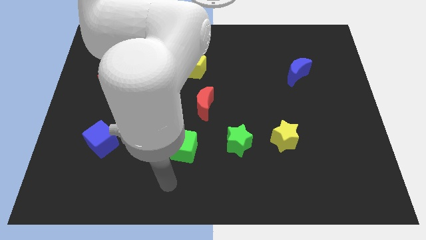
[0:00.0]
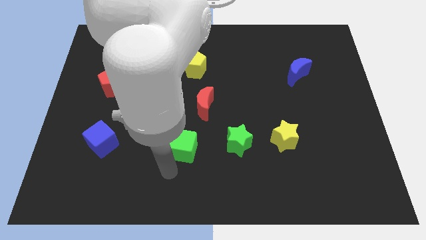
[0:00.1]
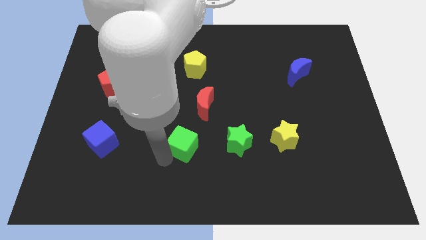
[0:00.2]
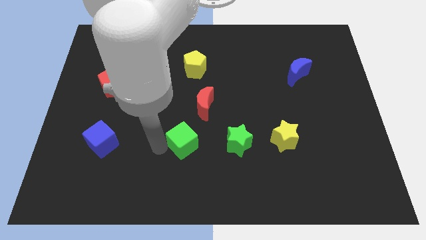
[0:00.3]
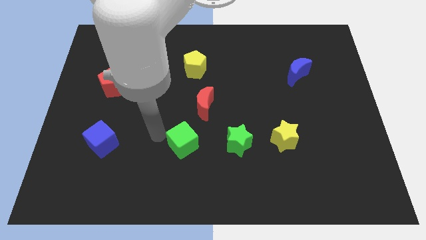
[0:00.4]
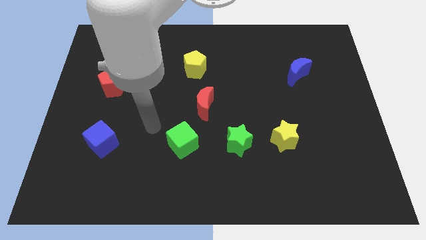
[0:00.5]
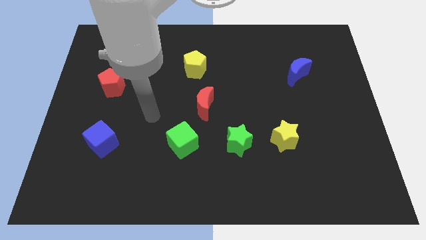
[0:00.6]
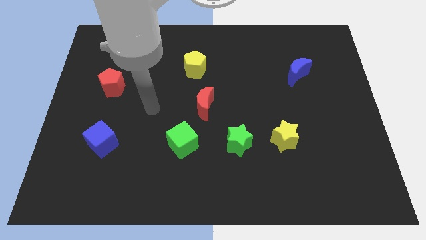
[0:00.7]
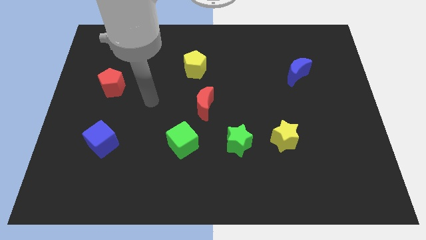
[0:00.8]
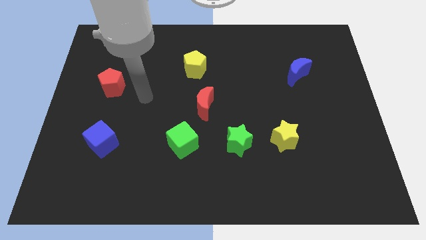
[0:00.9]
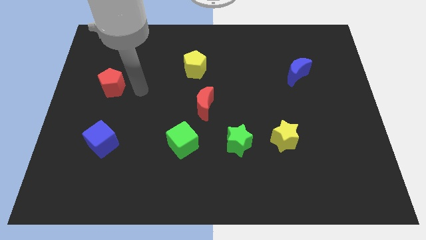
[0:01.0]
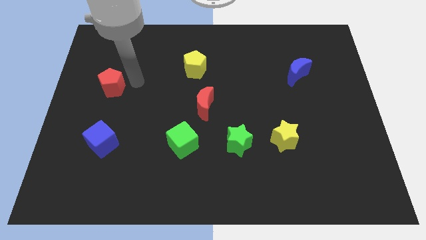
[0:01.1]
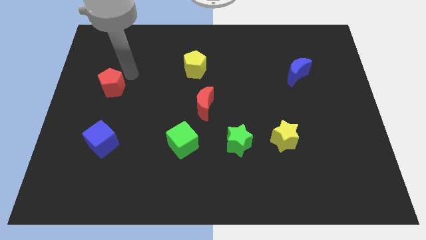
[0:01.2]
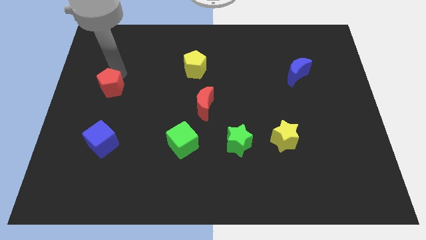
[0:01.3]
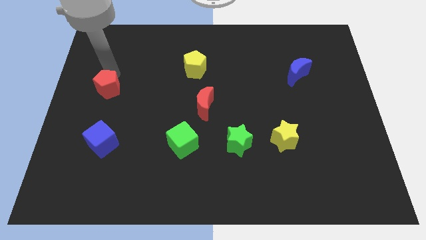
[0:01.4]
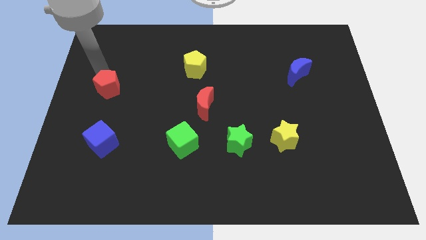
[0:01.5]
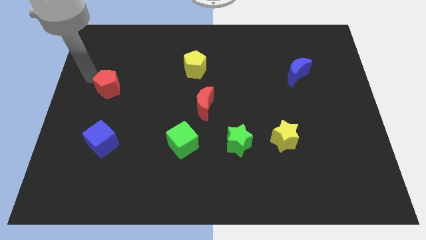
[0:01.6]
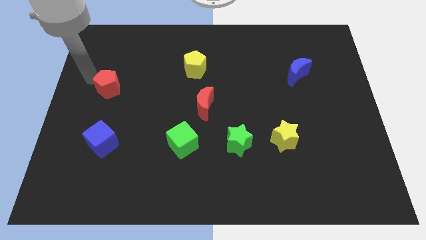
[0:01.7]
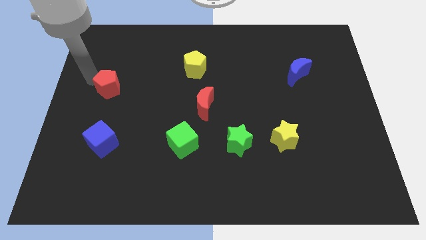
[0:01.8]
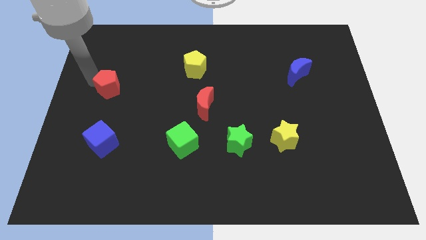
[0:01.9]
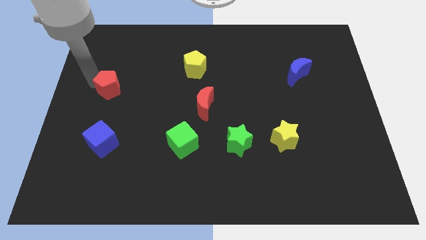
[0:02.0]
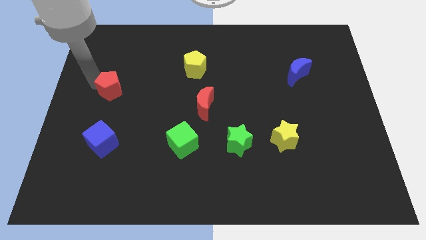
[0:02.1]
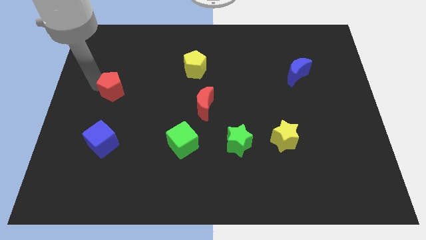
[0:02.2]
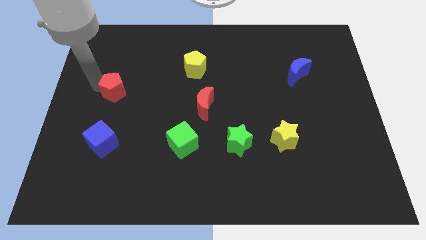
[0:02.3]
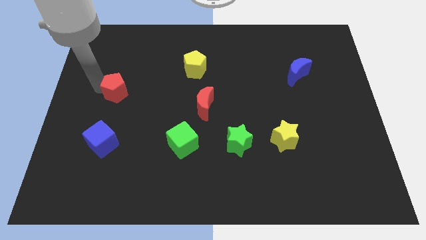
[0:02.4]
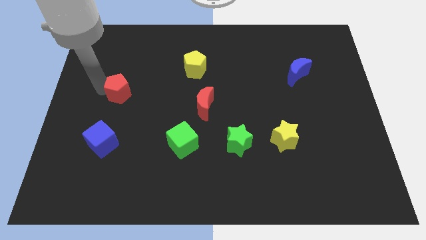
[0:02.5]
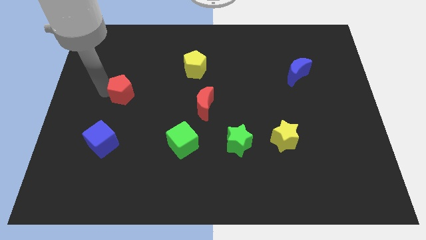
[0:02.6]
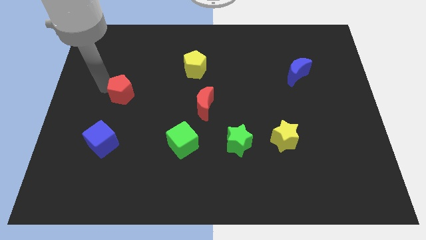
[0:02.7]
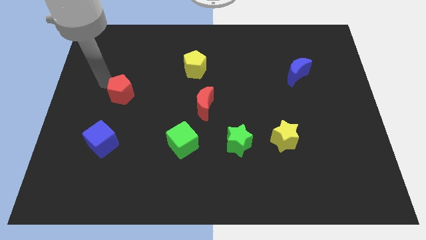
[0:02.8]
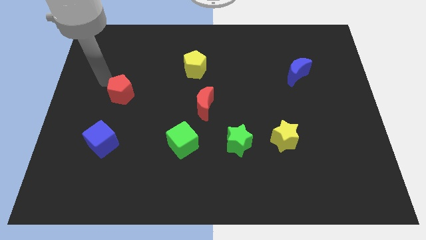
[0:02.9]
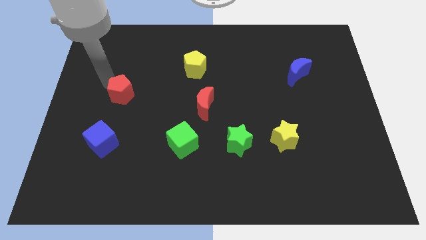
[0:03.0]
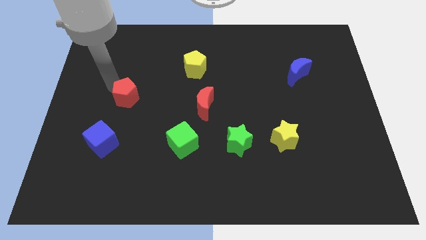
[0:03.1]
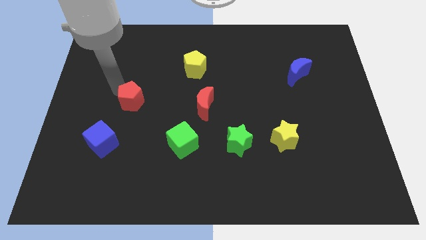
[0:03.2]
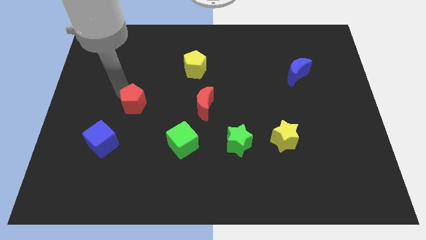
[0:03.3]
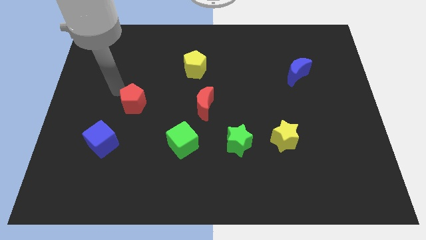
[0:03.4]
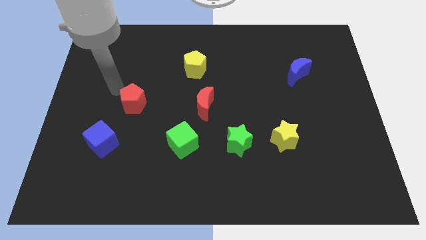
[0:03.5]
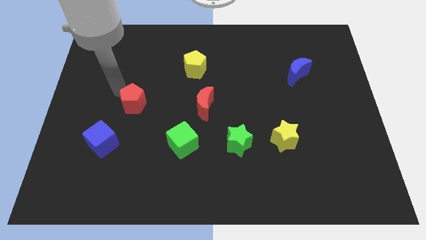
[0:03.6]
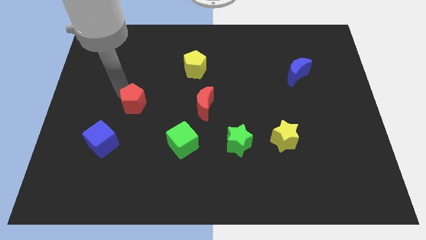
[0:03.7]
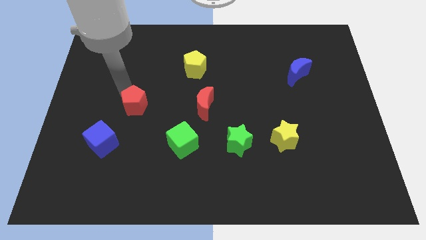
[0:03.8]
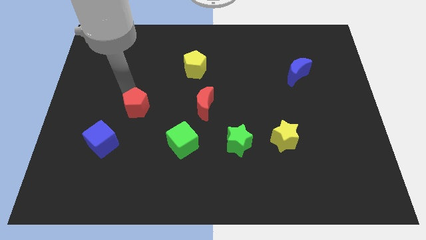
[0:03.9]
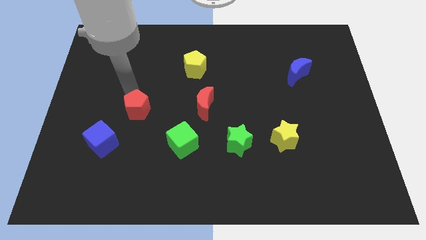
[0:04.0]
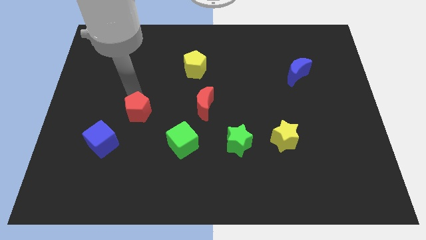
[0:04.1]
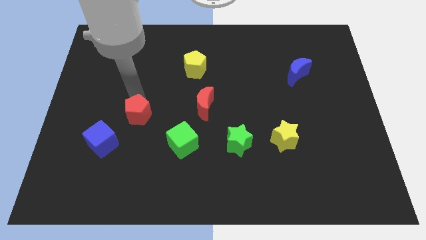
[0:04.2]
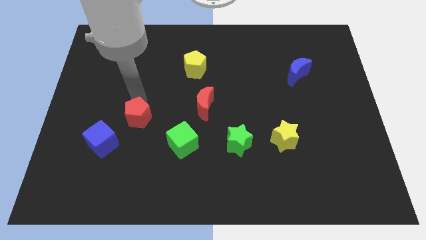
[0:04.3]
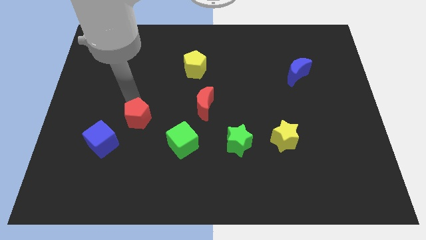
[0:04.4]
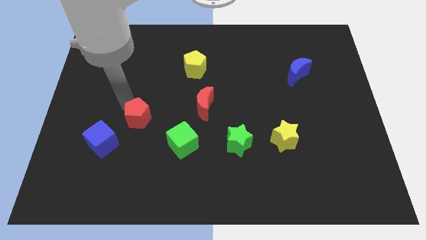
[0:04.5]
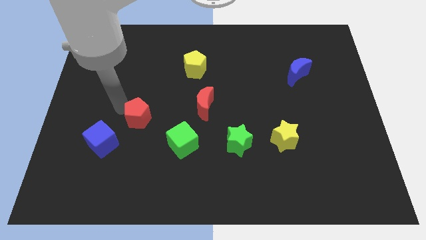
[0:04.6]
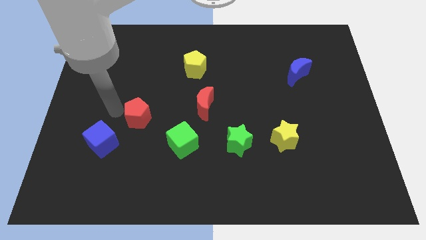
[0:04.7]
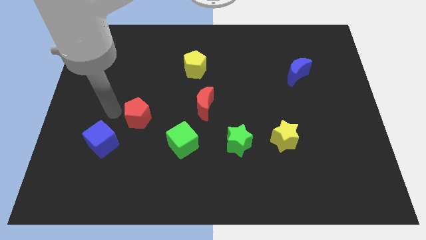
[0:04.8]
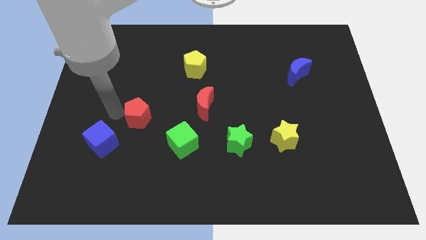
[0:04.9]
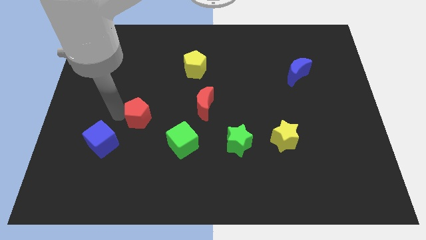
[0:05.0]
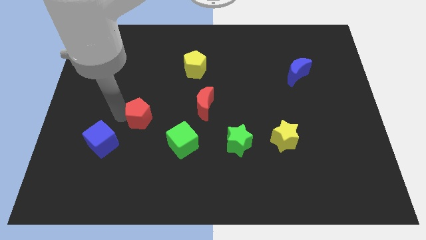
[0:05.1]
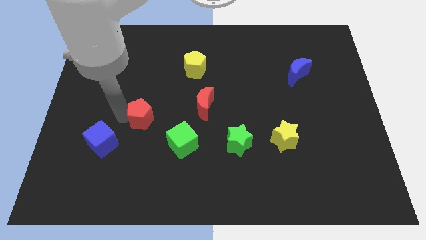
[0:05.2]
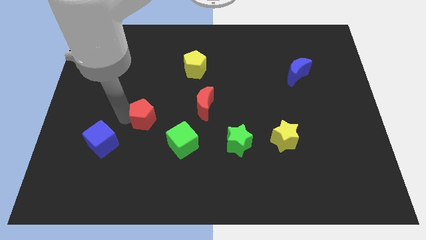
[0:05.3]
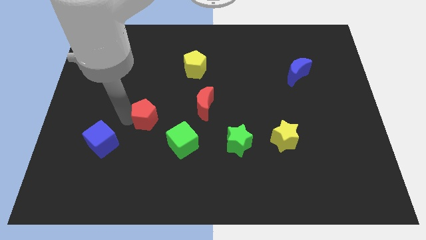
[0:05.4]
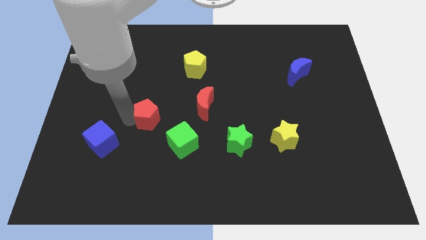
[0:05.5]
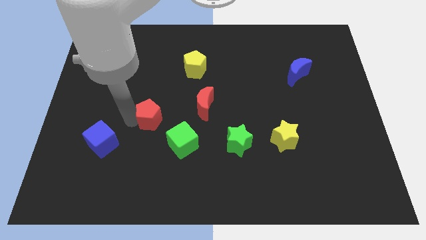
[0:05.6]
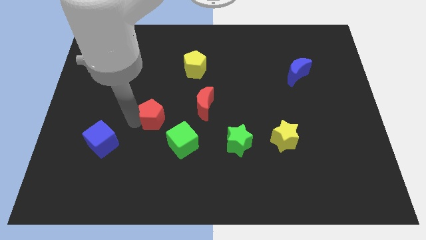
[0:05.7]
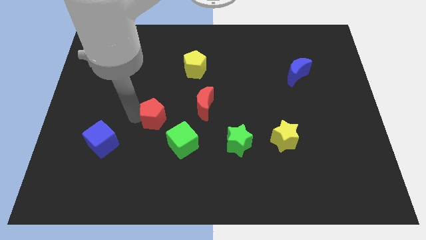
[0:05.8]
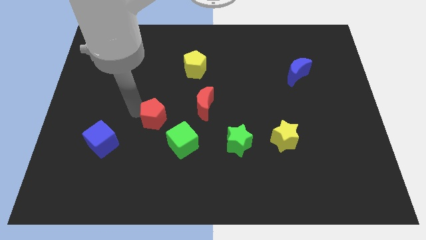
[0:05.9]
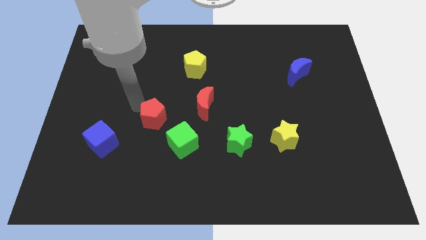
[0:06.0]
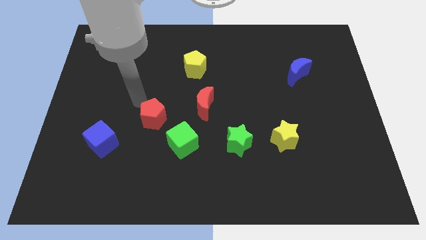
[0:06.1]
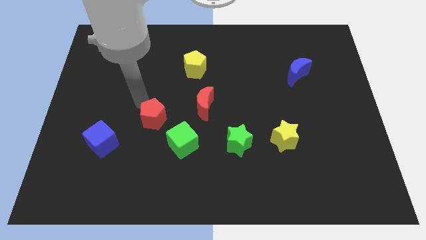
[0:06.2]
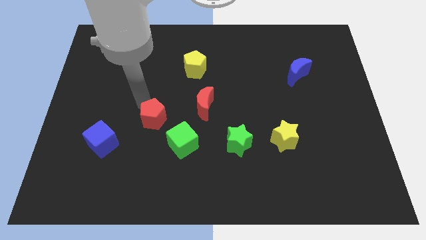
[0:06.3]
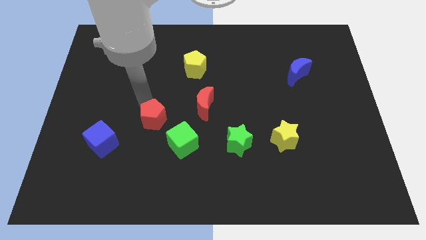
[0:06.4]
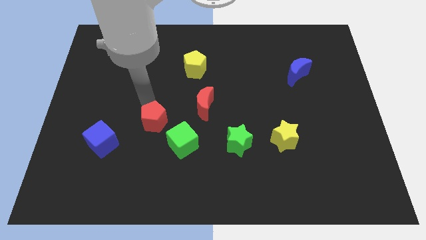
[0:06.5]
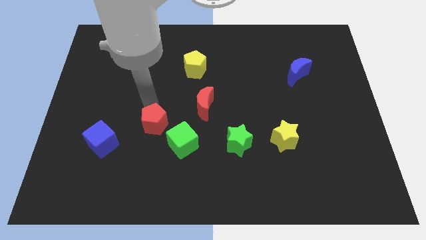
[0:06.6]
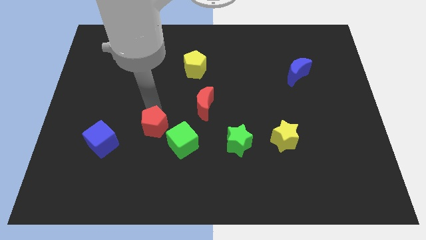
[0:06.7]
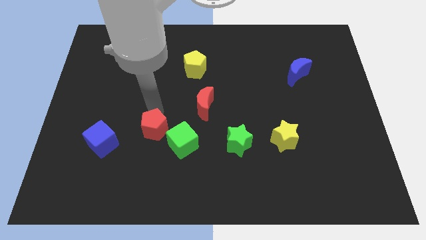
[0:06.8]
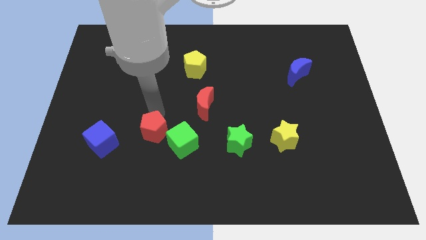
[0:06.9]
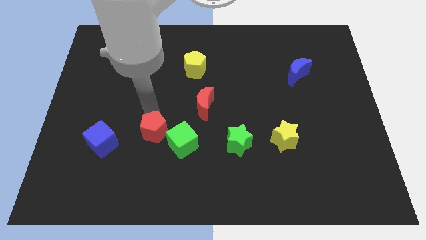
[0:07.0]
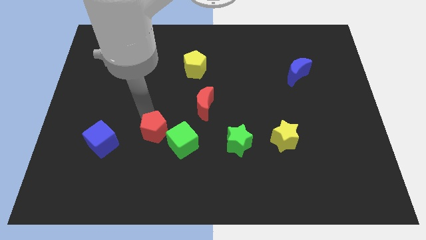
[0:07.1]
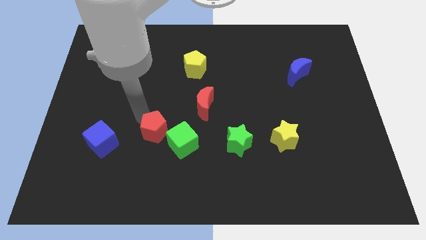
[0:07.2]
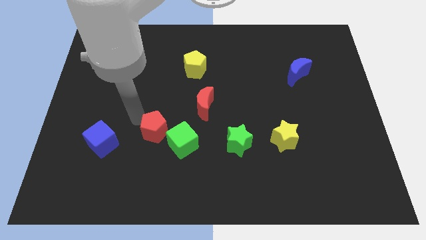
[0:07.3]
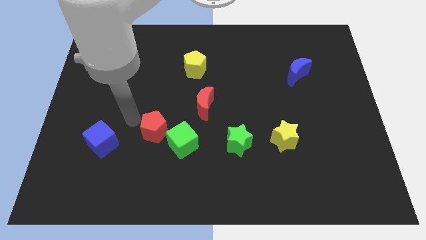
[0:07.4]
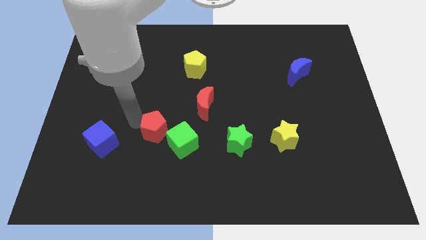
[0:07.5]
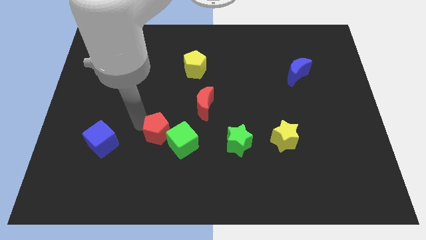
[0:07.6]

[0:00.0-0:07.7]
slide the red pentagon close to the green cube
